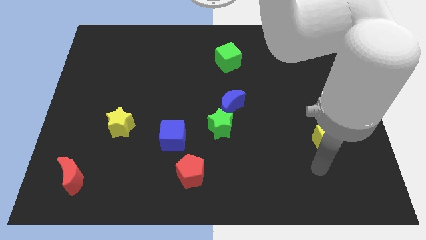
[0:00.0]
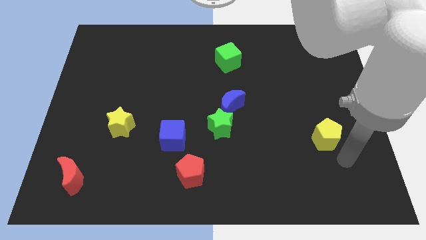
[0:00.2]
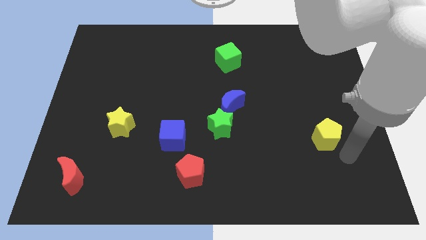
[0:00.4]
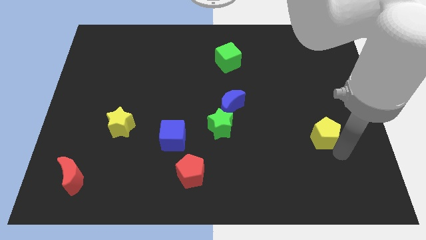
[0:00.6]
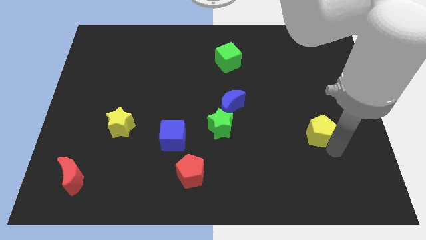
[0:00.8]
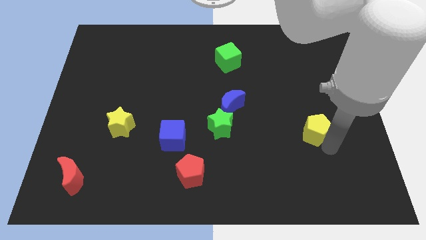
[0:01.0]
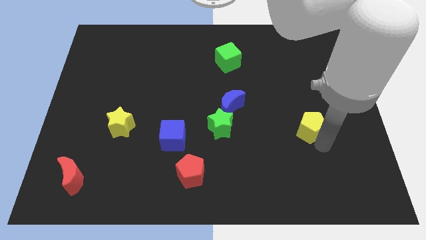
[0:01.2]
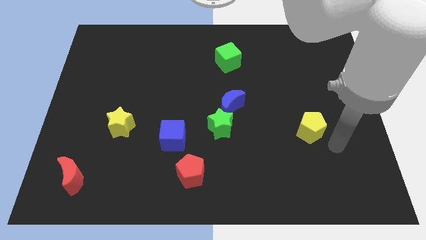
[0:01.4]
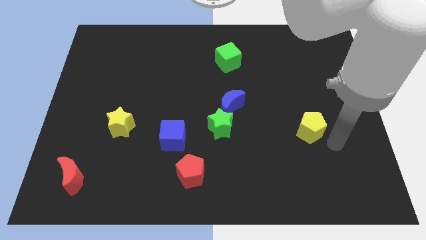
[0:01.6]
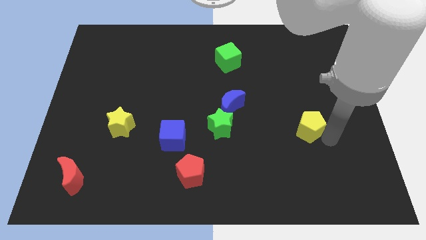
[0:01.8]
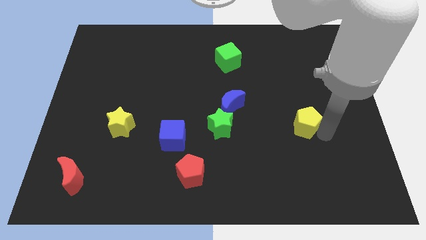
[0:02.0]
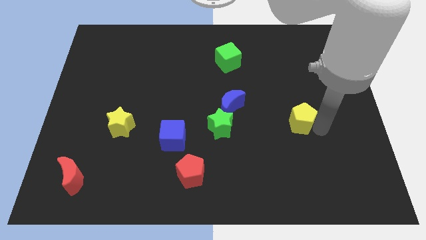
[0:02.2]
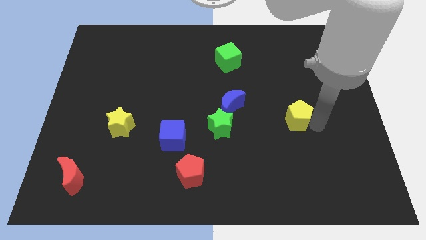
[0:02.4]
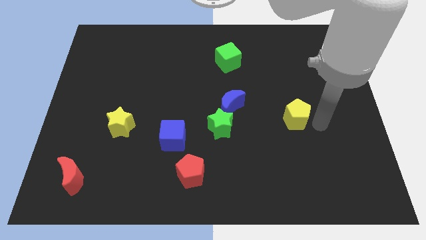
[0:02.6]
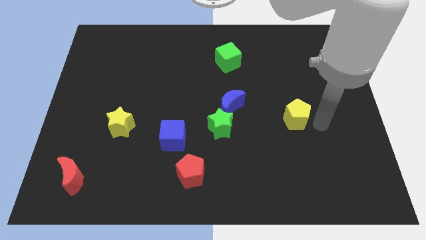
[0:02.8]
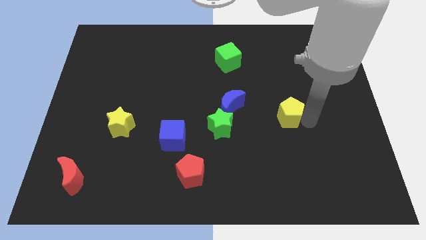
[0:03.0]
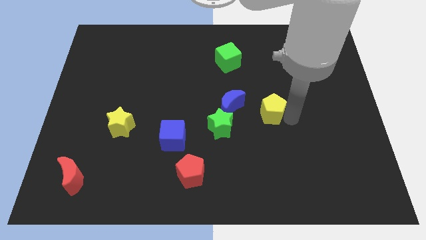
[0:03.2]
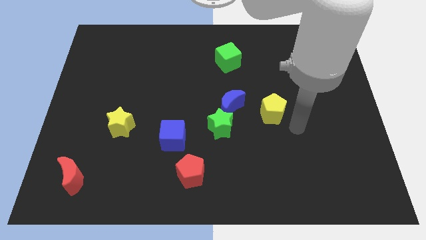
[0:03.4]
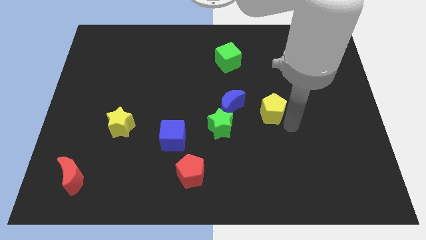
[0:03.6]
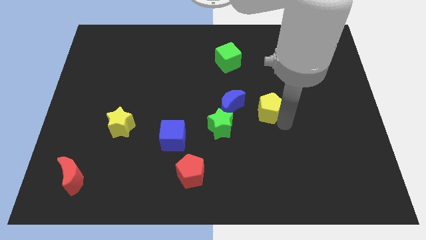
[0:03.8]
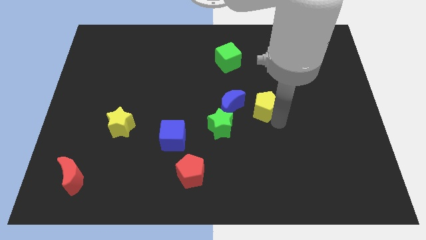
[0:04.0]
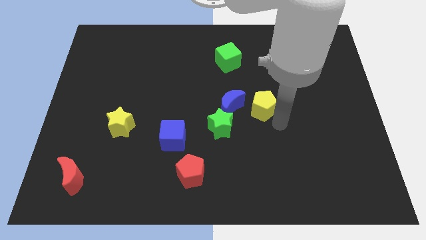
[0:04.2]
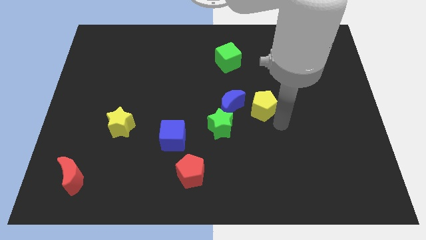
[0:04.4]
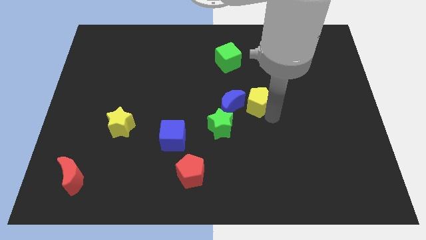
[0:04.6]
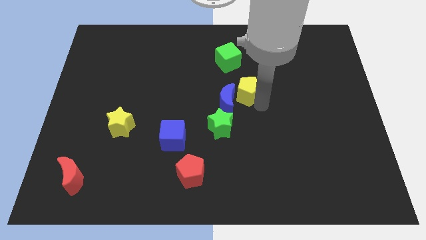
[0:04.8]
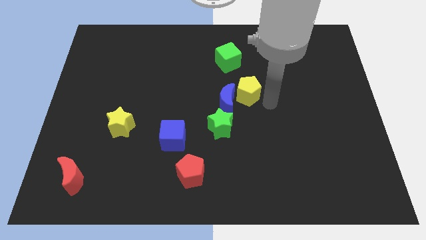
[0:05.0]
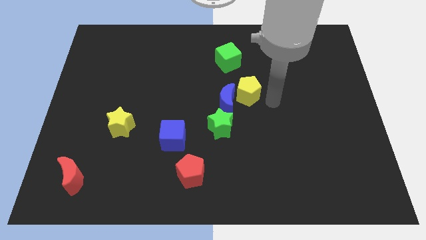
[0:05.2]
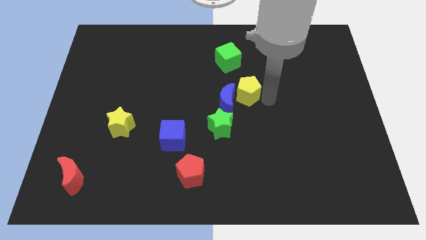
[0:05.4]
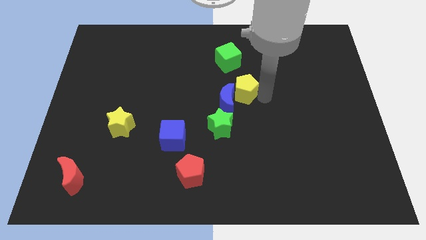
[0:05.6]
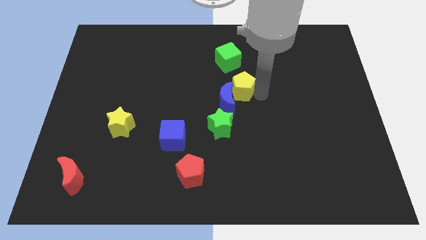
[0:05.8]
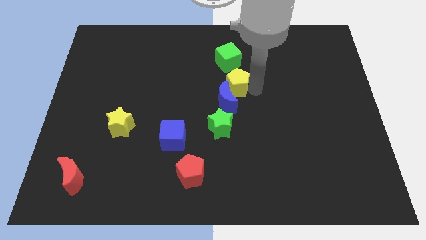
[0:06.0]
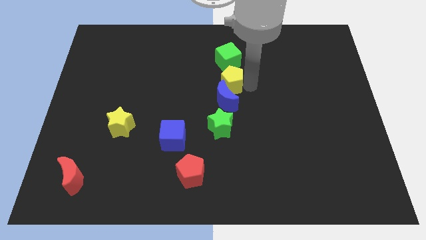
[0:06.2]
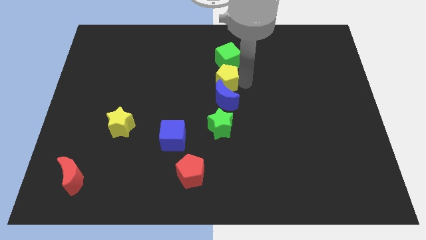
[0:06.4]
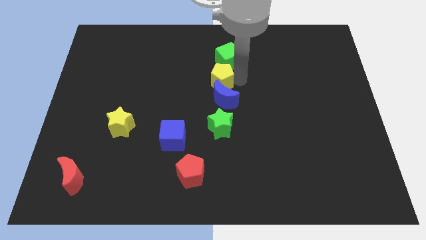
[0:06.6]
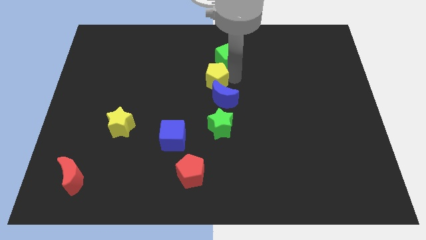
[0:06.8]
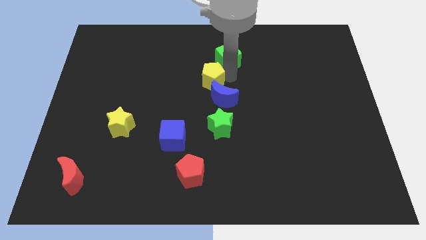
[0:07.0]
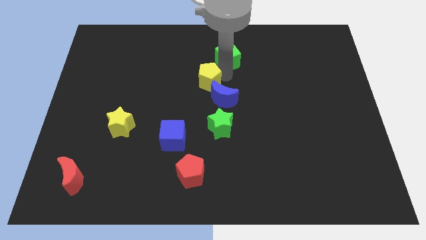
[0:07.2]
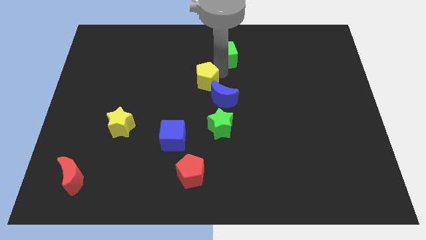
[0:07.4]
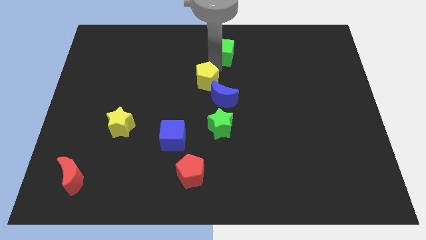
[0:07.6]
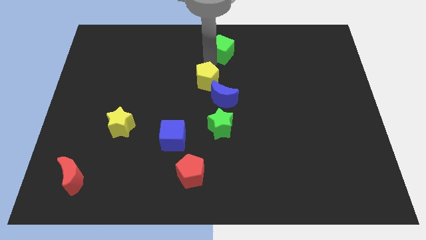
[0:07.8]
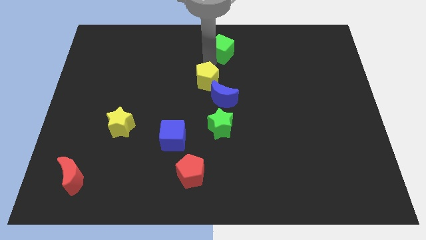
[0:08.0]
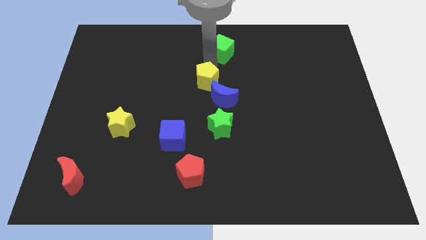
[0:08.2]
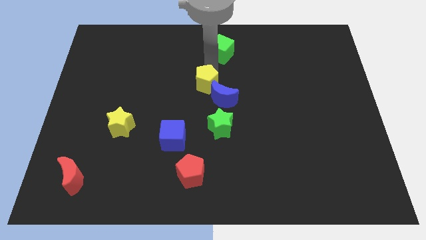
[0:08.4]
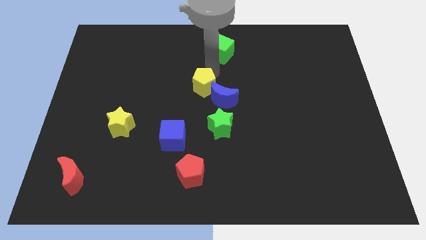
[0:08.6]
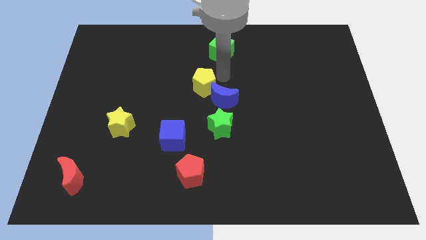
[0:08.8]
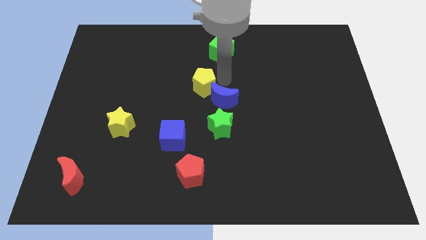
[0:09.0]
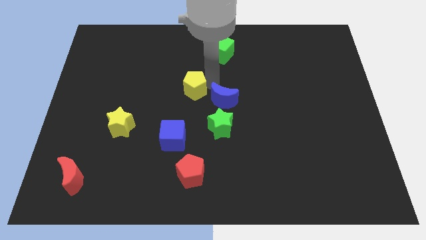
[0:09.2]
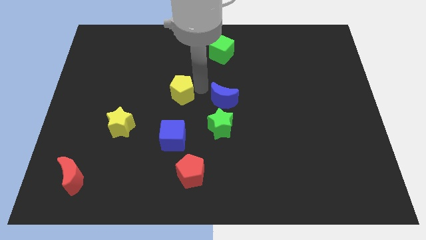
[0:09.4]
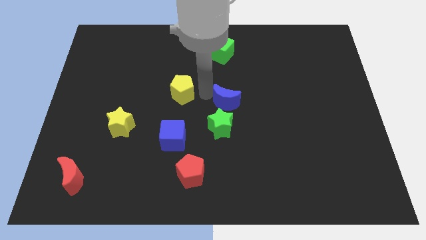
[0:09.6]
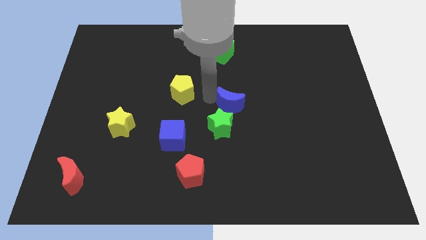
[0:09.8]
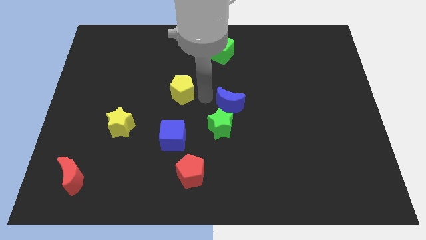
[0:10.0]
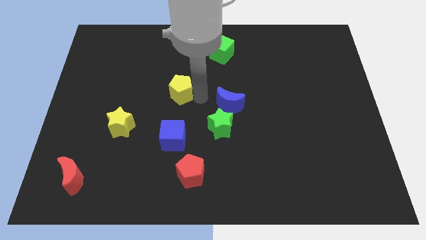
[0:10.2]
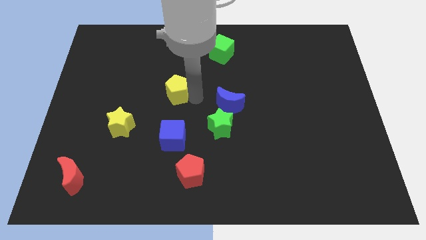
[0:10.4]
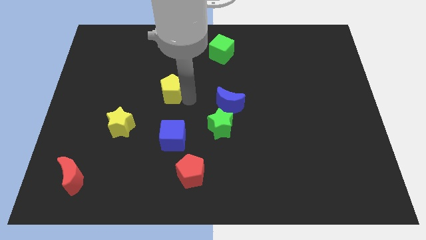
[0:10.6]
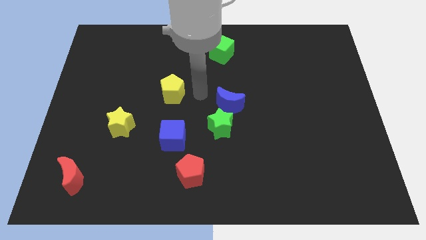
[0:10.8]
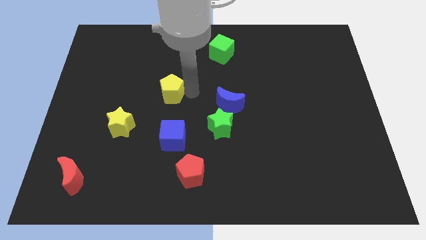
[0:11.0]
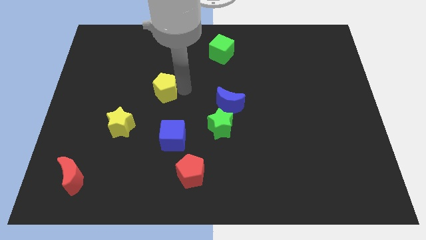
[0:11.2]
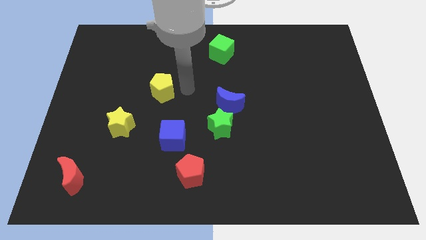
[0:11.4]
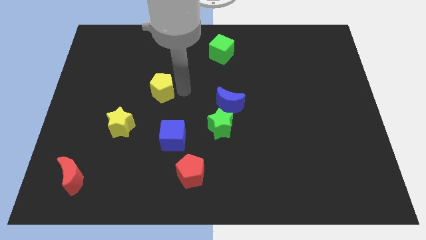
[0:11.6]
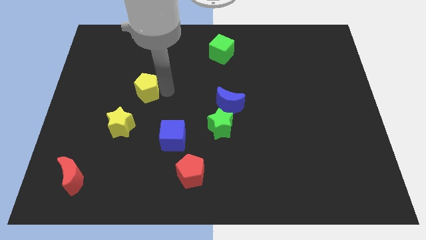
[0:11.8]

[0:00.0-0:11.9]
slide the yellow pentagon above the yellow star
